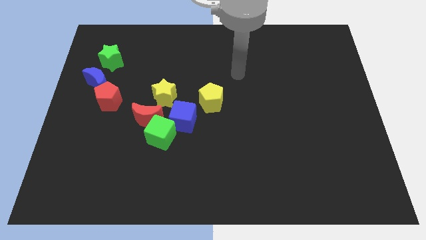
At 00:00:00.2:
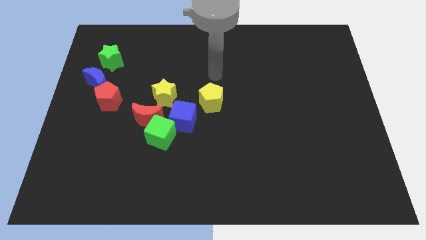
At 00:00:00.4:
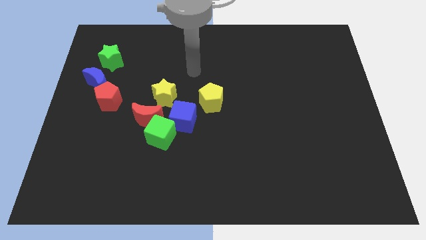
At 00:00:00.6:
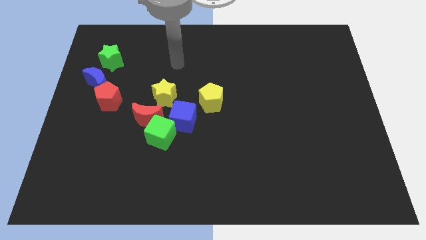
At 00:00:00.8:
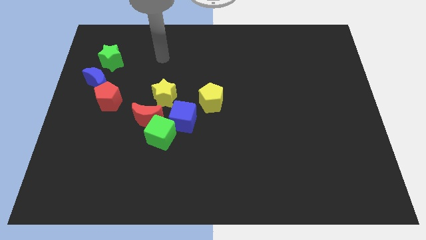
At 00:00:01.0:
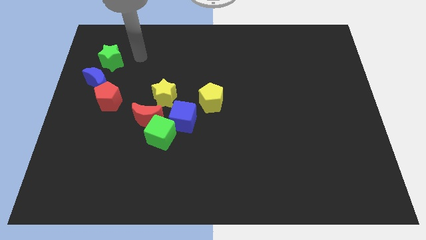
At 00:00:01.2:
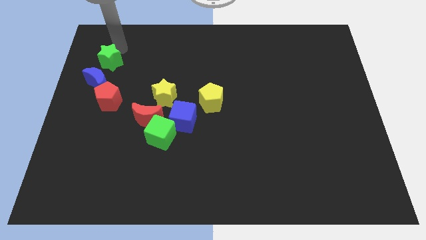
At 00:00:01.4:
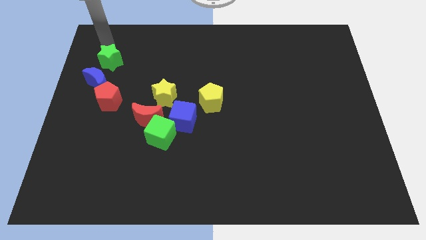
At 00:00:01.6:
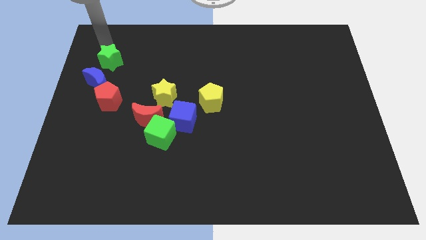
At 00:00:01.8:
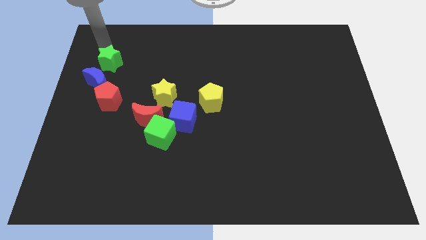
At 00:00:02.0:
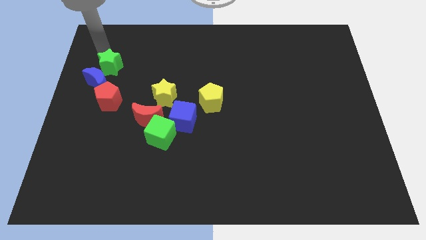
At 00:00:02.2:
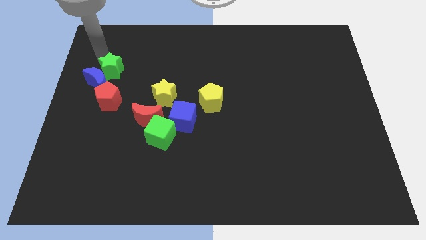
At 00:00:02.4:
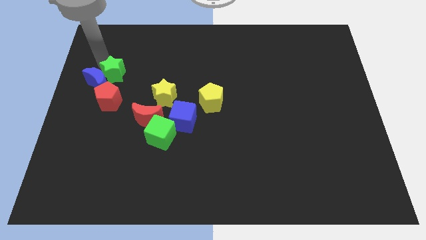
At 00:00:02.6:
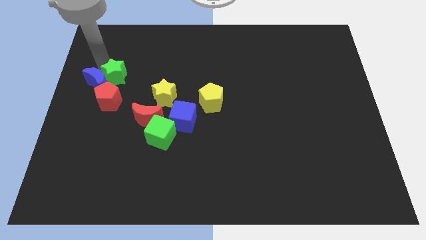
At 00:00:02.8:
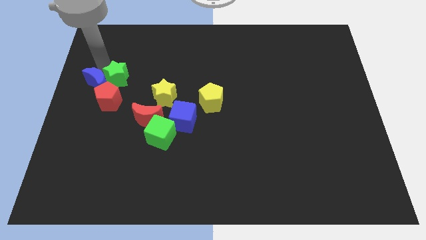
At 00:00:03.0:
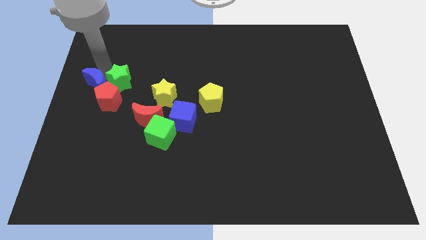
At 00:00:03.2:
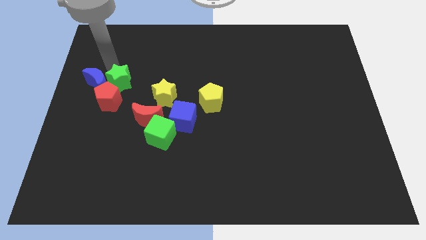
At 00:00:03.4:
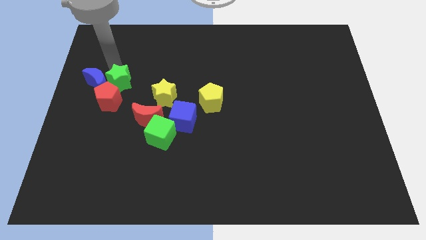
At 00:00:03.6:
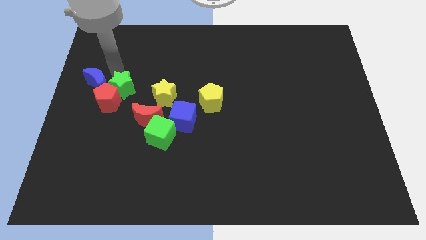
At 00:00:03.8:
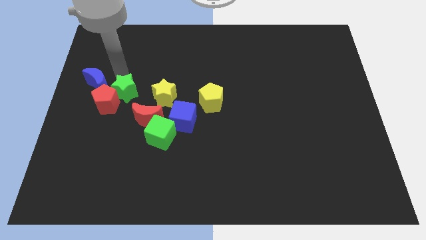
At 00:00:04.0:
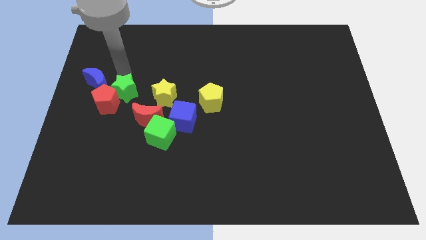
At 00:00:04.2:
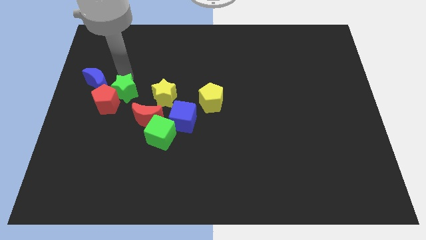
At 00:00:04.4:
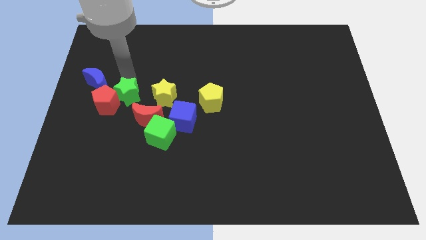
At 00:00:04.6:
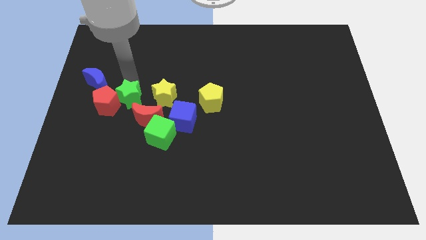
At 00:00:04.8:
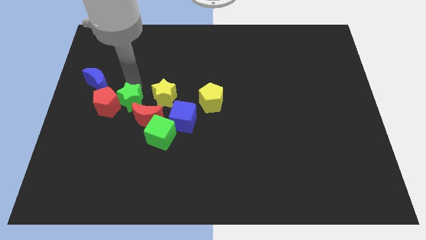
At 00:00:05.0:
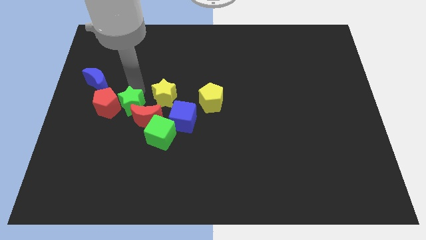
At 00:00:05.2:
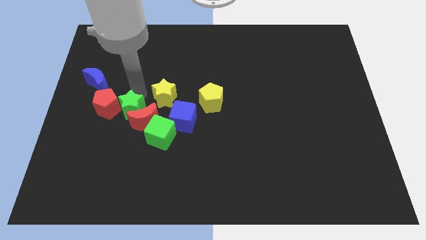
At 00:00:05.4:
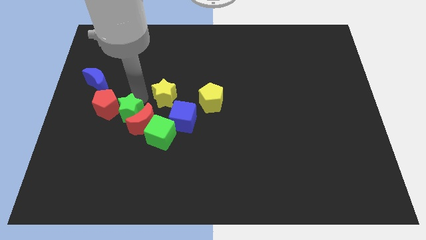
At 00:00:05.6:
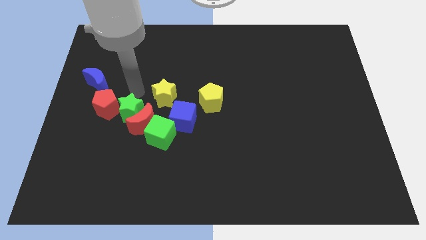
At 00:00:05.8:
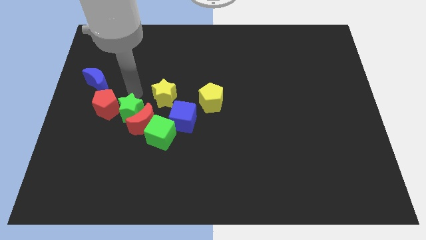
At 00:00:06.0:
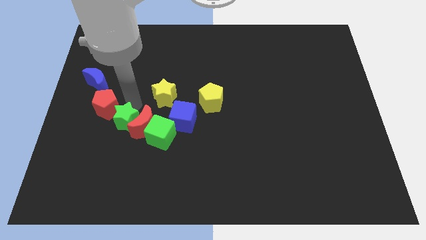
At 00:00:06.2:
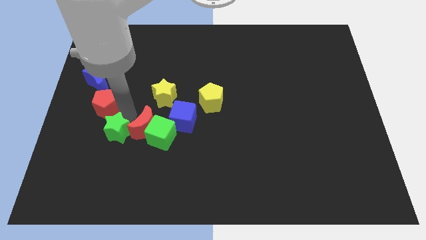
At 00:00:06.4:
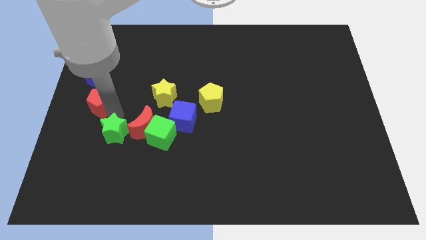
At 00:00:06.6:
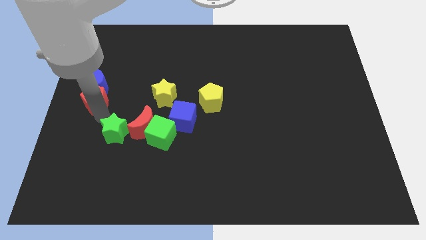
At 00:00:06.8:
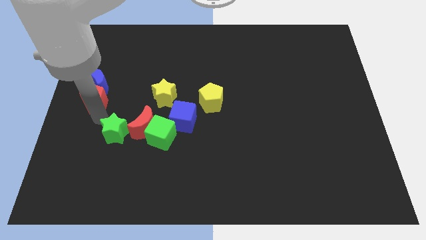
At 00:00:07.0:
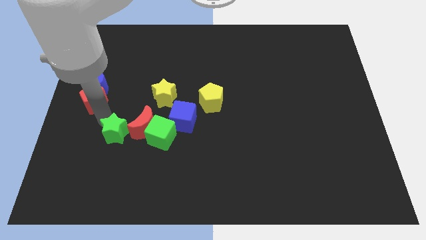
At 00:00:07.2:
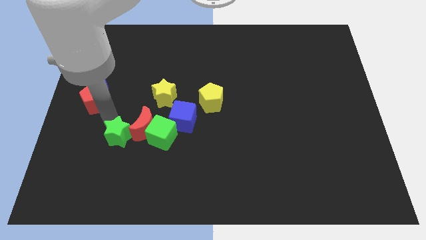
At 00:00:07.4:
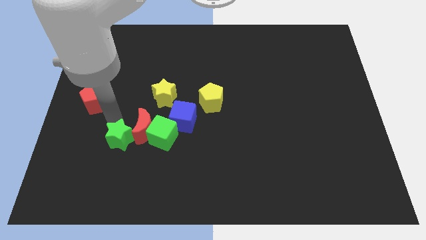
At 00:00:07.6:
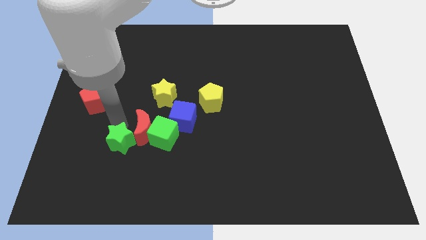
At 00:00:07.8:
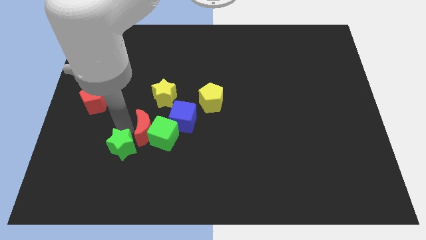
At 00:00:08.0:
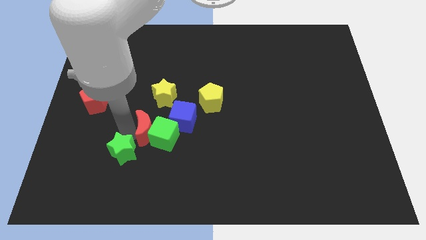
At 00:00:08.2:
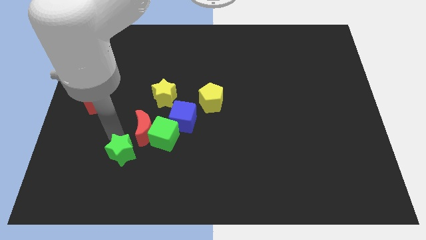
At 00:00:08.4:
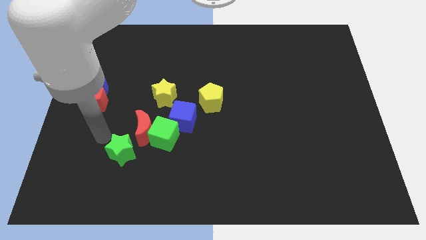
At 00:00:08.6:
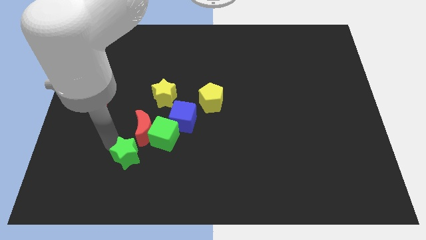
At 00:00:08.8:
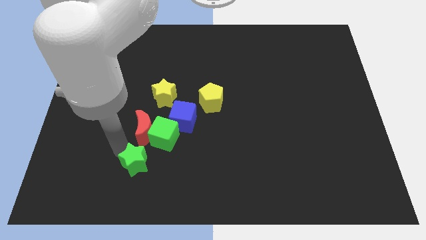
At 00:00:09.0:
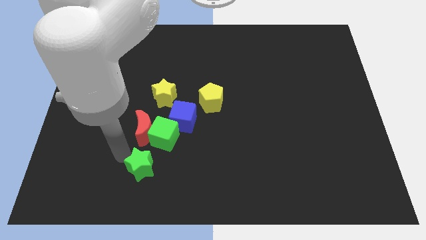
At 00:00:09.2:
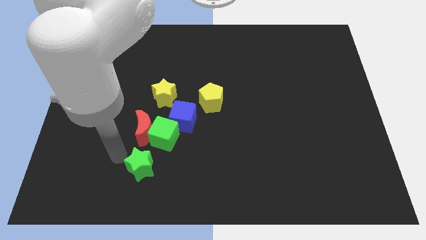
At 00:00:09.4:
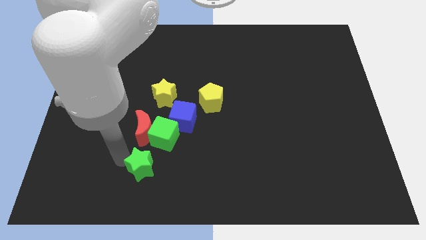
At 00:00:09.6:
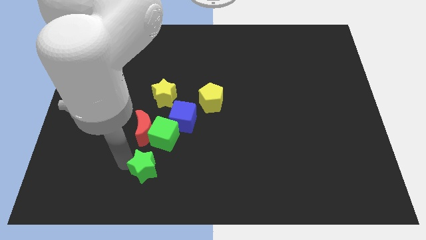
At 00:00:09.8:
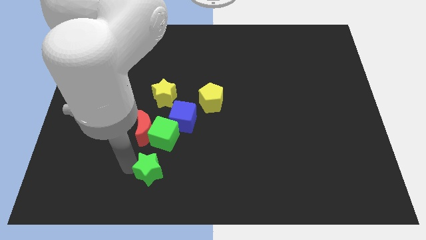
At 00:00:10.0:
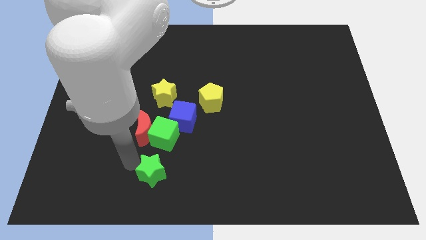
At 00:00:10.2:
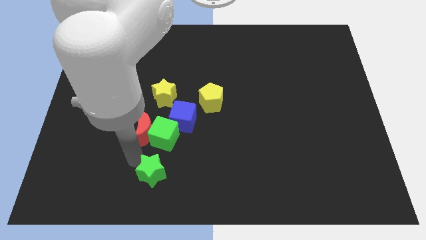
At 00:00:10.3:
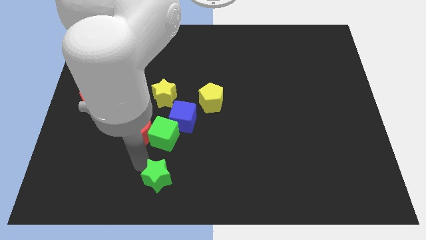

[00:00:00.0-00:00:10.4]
put the green star to the bottom

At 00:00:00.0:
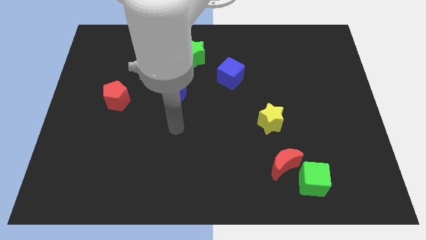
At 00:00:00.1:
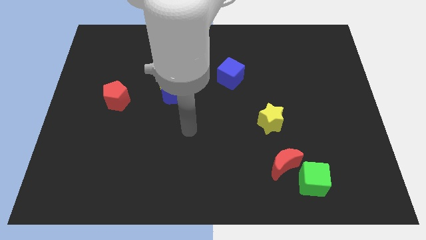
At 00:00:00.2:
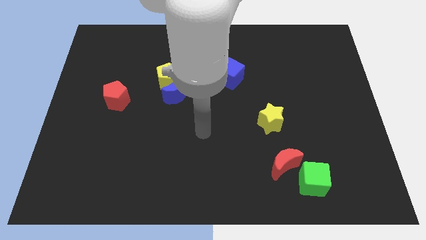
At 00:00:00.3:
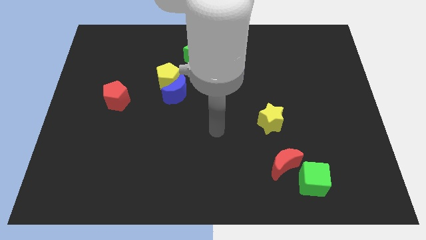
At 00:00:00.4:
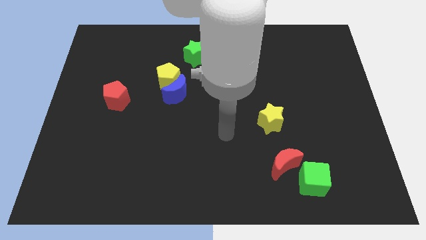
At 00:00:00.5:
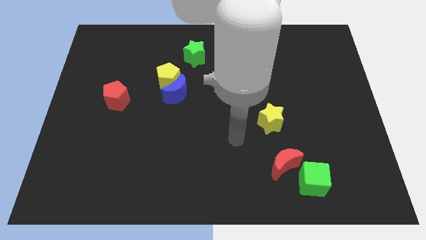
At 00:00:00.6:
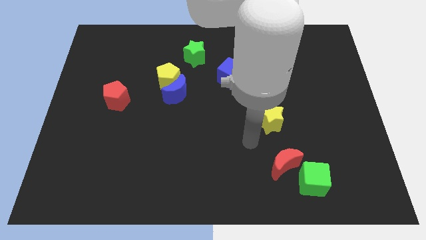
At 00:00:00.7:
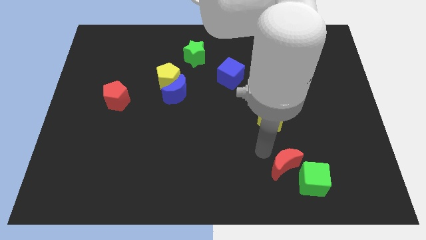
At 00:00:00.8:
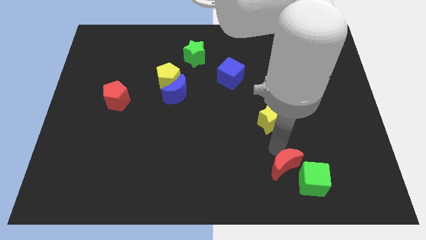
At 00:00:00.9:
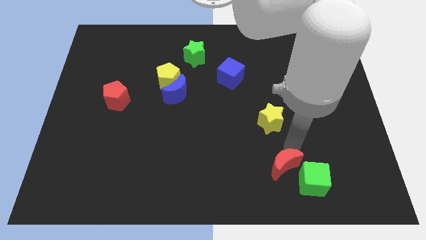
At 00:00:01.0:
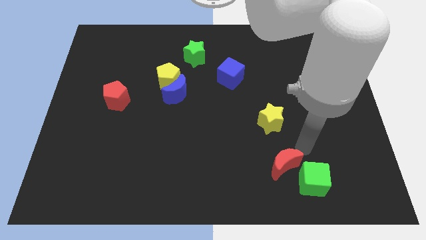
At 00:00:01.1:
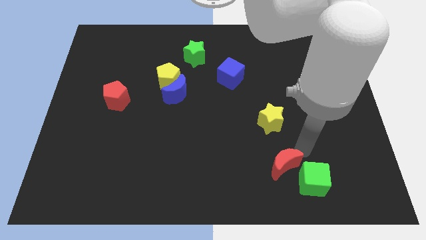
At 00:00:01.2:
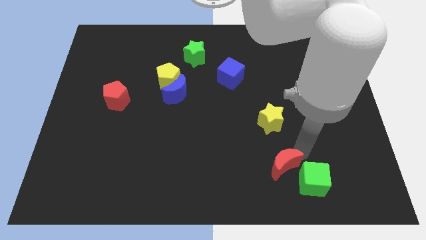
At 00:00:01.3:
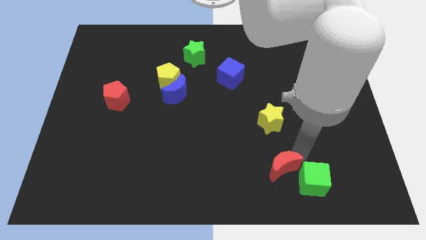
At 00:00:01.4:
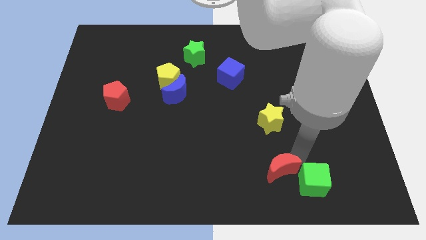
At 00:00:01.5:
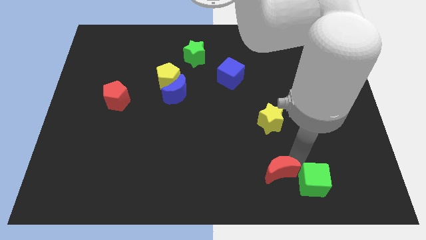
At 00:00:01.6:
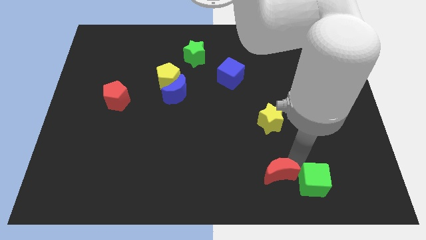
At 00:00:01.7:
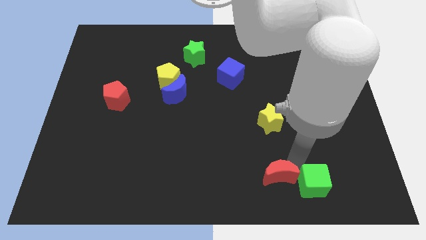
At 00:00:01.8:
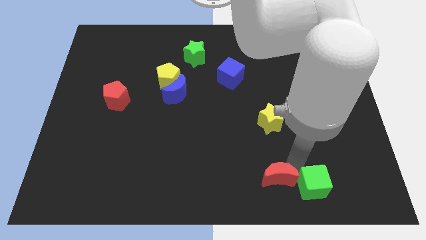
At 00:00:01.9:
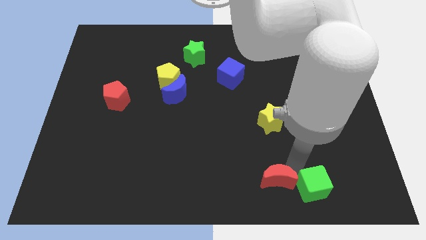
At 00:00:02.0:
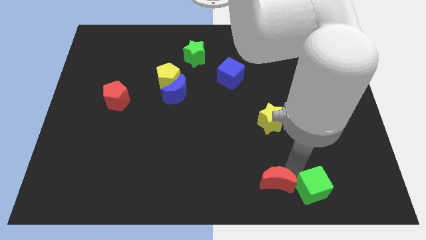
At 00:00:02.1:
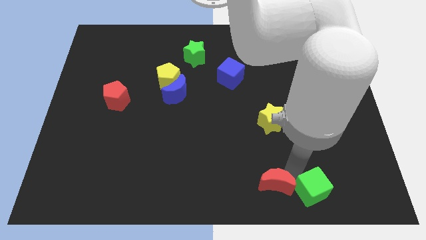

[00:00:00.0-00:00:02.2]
move the red moon to the bottom side
